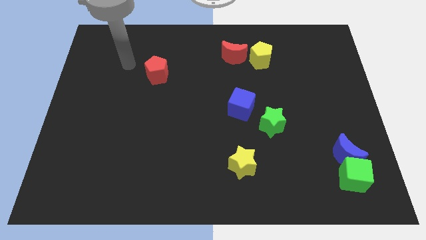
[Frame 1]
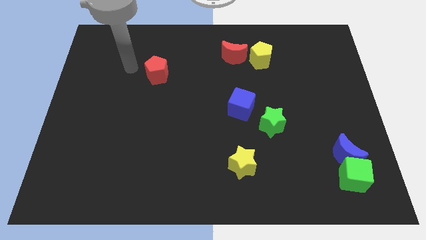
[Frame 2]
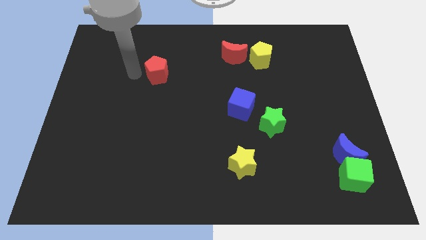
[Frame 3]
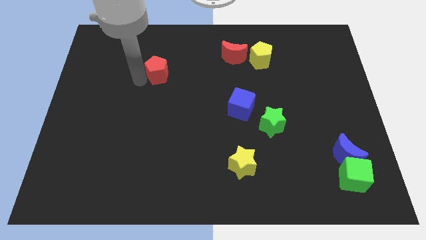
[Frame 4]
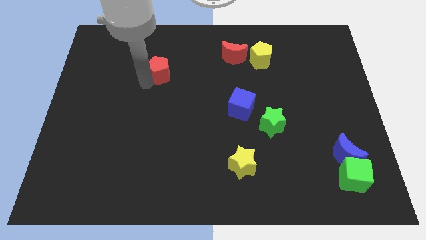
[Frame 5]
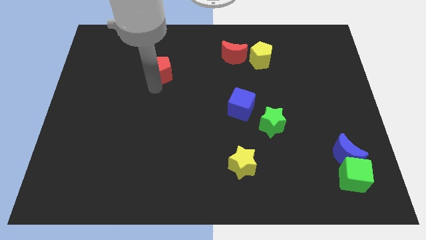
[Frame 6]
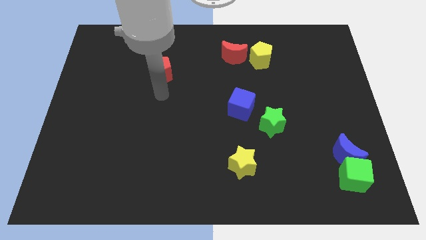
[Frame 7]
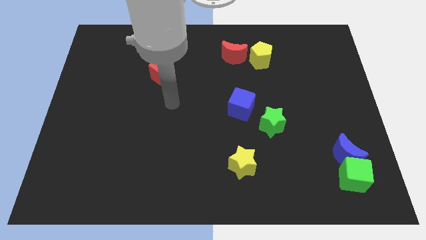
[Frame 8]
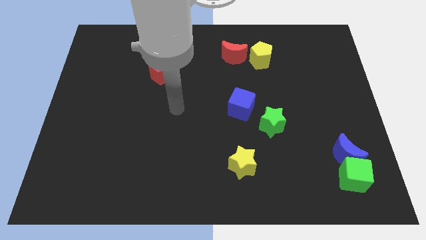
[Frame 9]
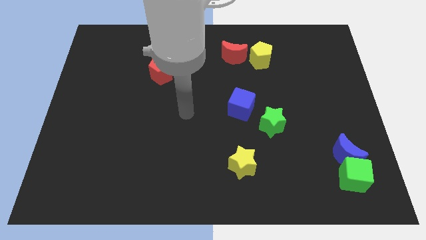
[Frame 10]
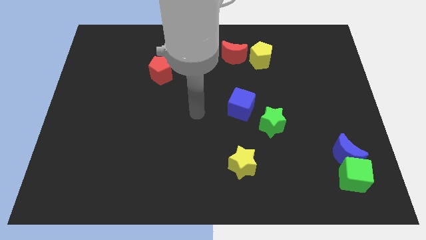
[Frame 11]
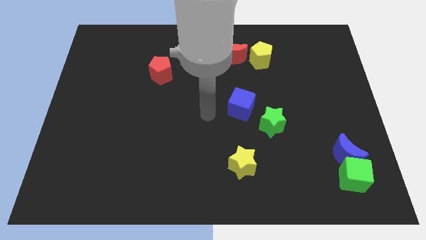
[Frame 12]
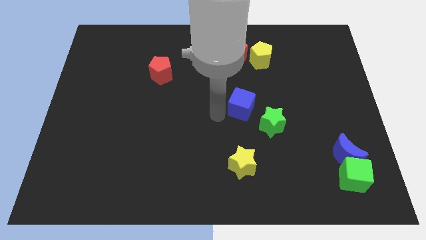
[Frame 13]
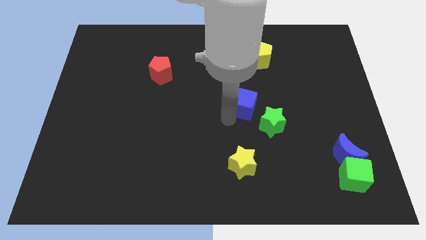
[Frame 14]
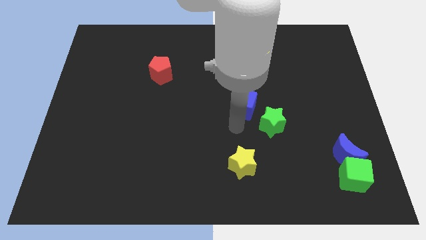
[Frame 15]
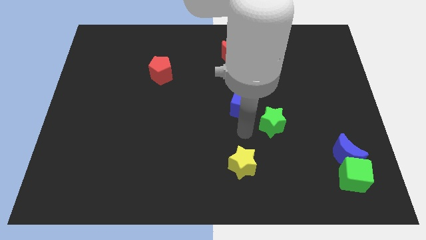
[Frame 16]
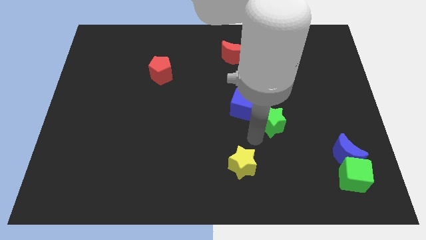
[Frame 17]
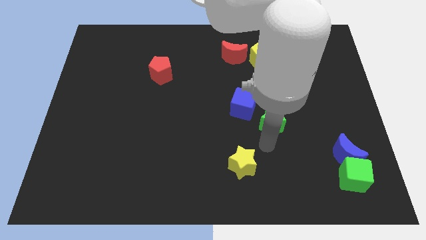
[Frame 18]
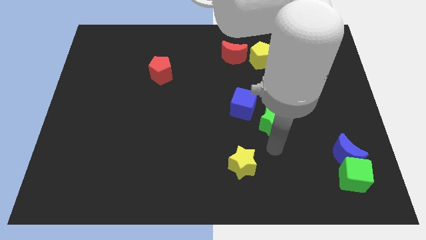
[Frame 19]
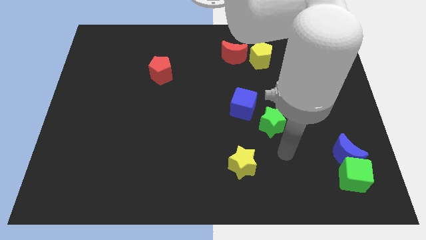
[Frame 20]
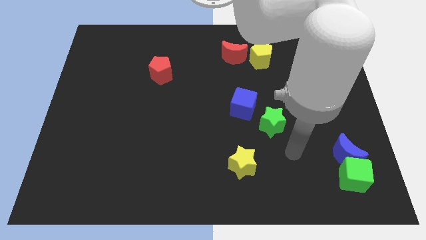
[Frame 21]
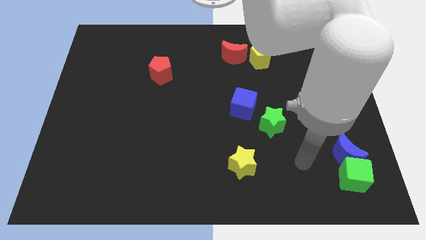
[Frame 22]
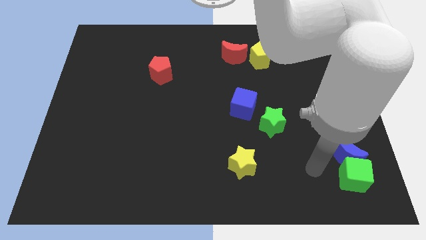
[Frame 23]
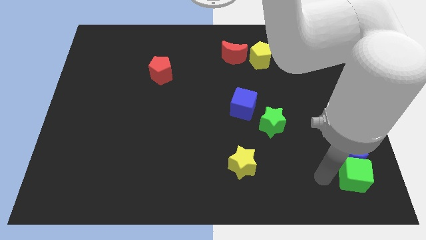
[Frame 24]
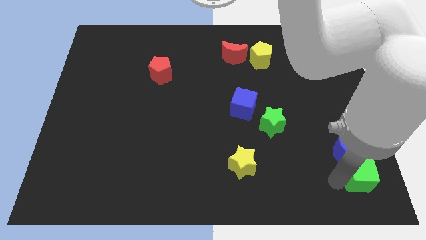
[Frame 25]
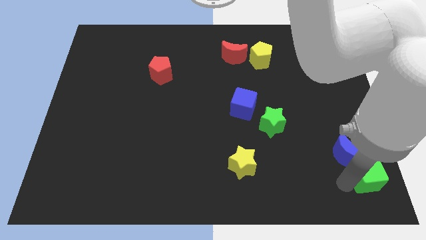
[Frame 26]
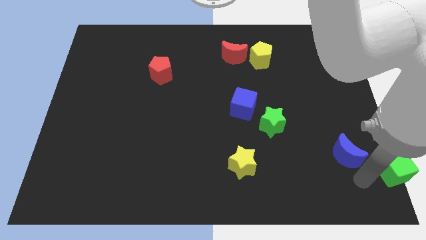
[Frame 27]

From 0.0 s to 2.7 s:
move the blue moon away from the green cube

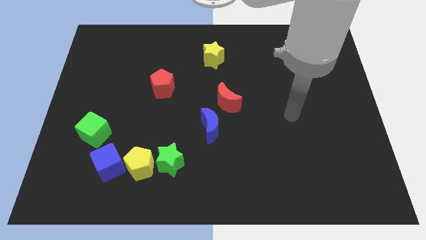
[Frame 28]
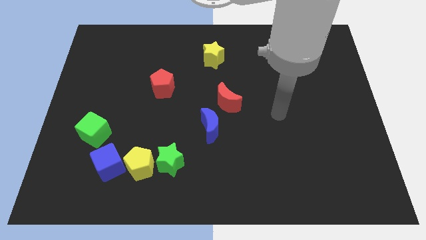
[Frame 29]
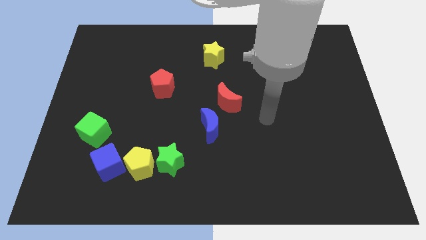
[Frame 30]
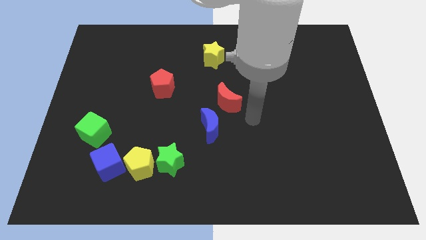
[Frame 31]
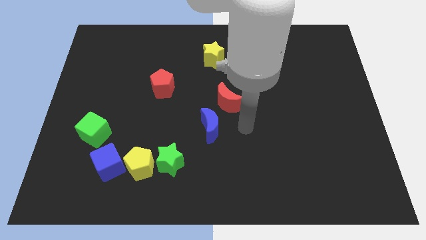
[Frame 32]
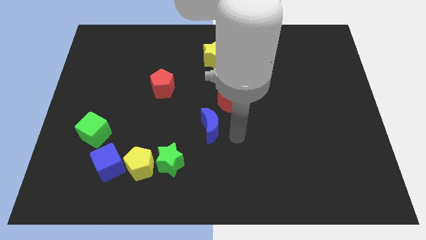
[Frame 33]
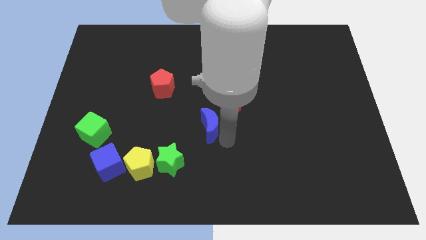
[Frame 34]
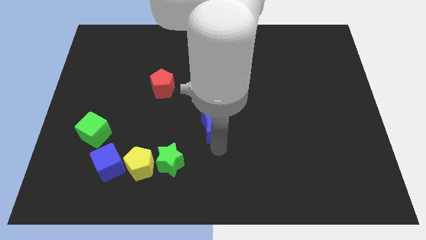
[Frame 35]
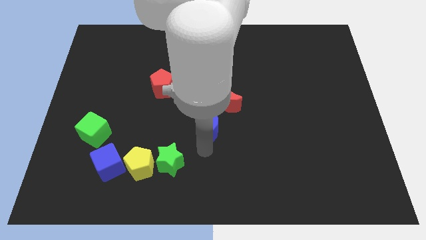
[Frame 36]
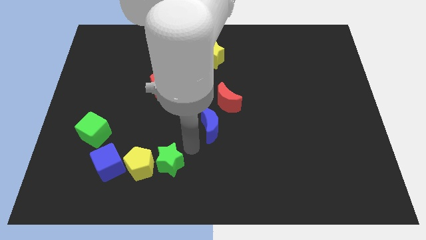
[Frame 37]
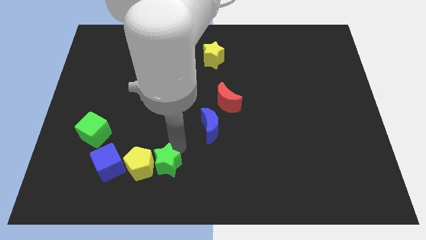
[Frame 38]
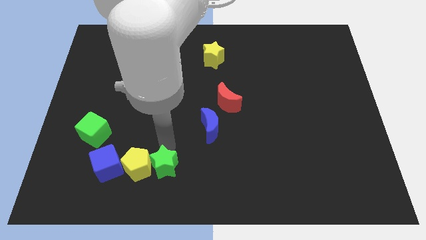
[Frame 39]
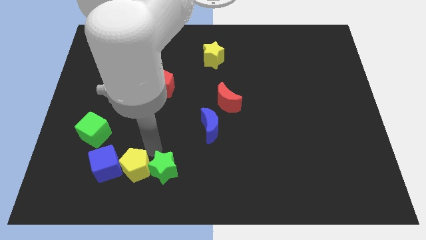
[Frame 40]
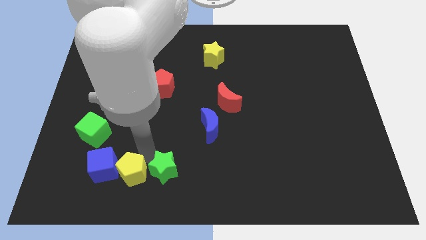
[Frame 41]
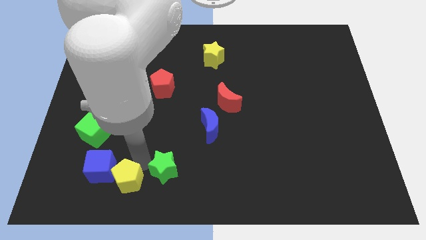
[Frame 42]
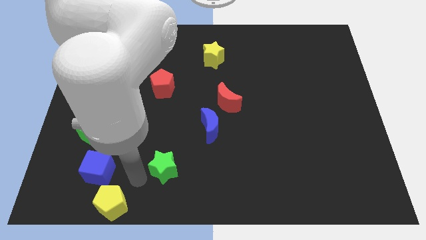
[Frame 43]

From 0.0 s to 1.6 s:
move the green star away from the yellow pentagon

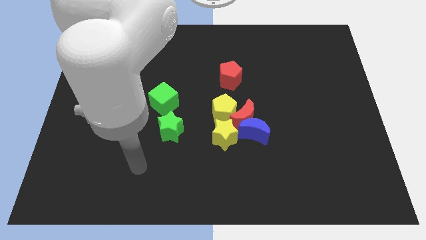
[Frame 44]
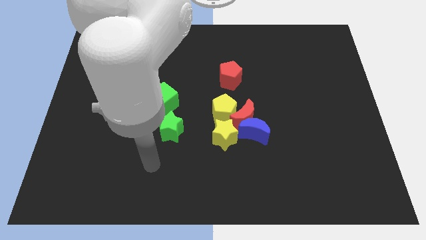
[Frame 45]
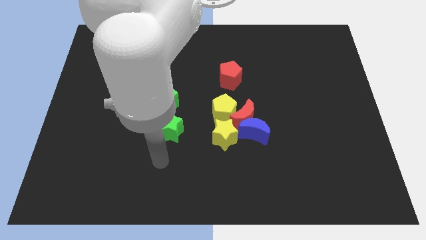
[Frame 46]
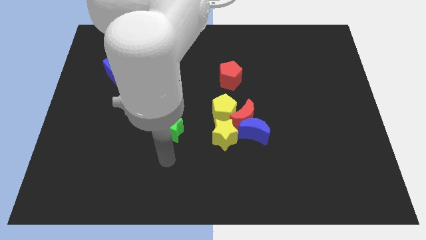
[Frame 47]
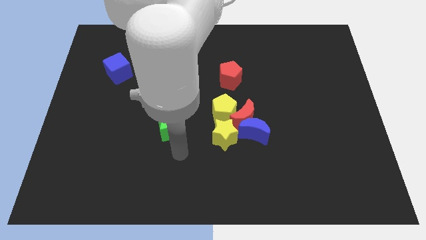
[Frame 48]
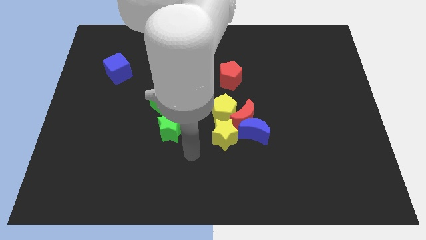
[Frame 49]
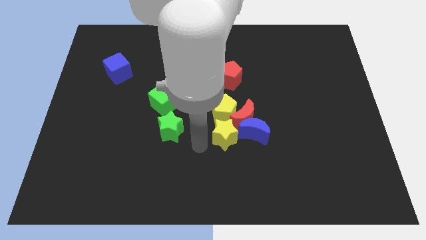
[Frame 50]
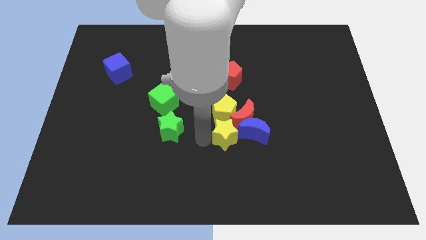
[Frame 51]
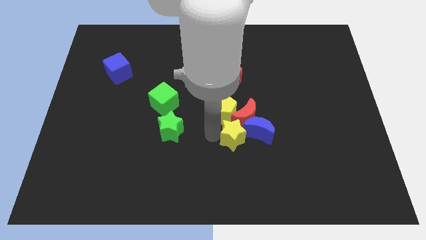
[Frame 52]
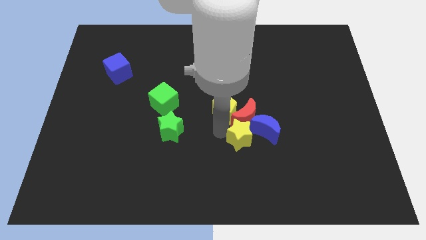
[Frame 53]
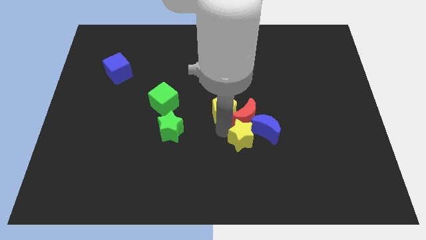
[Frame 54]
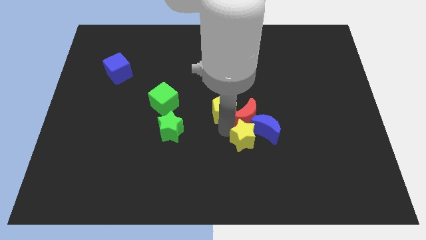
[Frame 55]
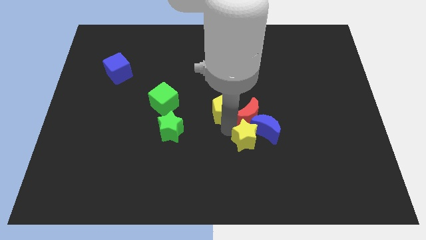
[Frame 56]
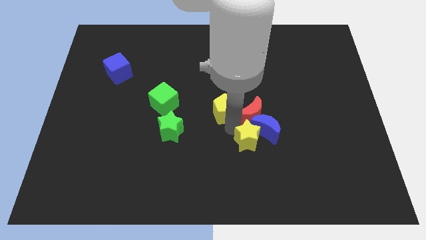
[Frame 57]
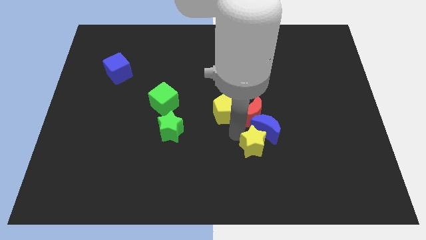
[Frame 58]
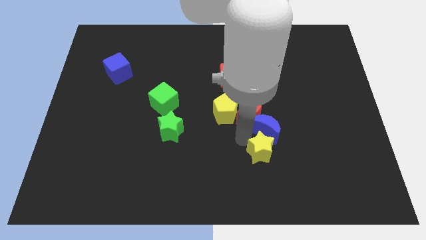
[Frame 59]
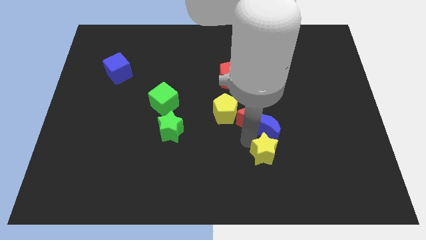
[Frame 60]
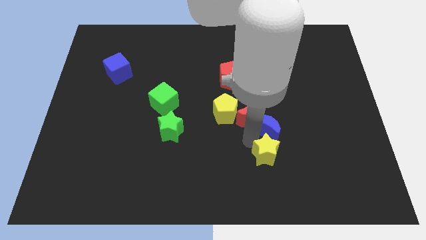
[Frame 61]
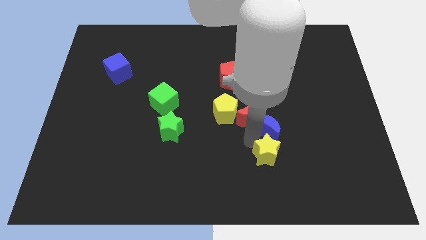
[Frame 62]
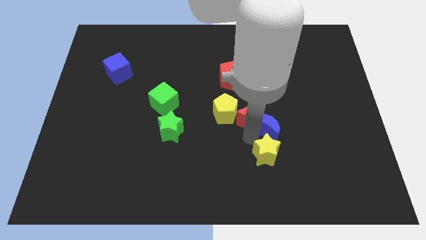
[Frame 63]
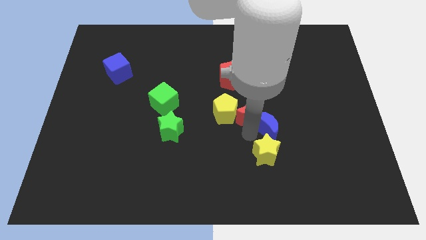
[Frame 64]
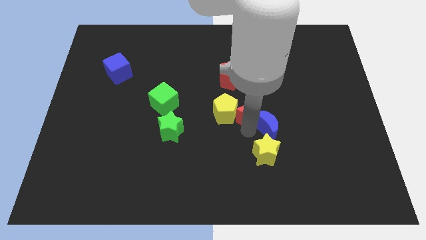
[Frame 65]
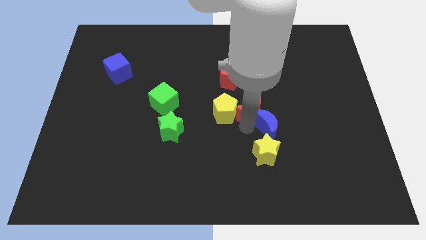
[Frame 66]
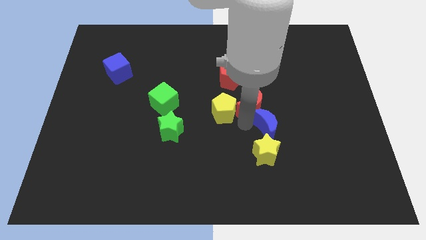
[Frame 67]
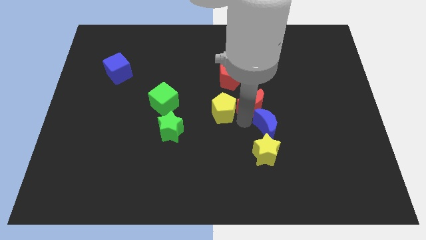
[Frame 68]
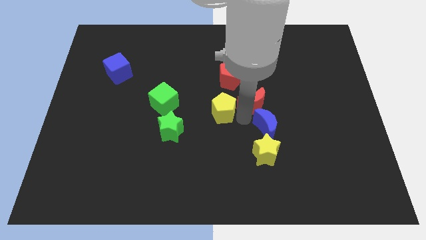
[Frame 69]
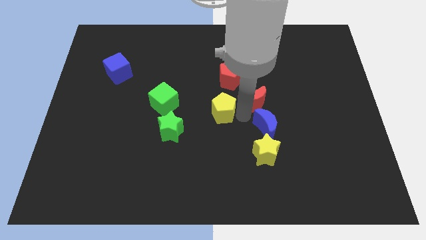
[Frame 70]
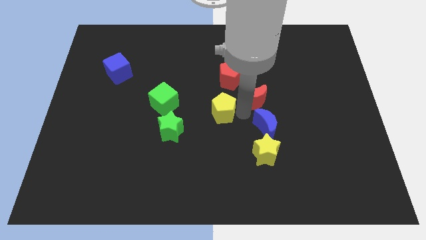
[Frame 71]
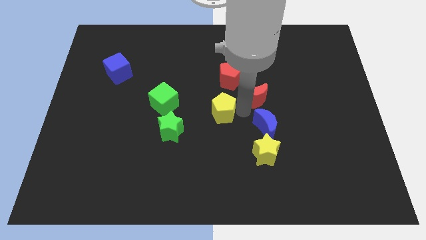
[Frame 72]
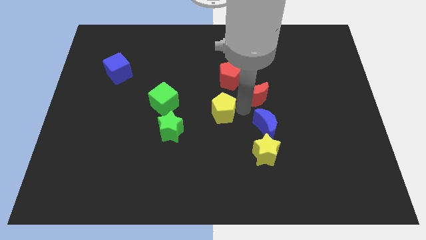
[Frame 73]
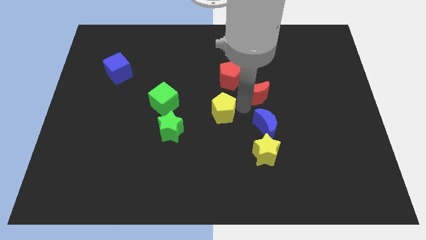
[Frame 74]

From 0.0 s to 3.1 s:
move the red moon away from the group of blocks

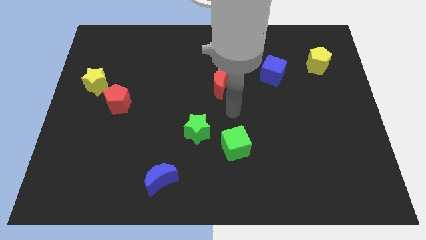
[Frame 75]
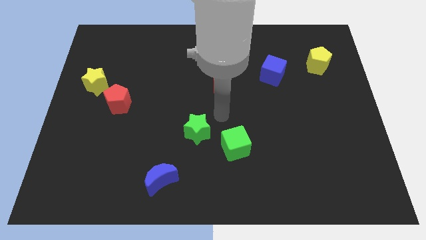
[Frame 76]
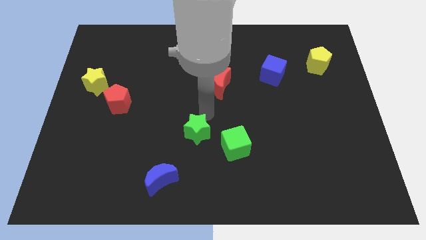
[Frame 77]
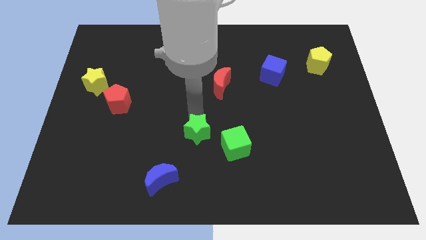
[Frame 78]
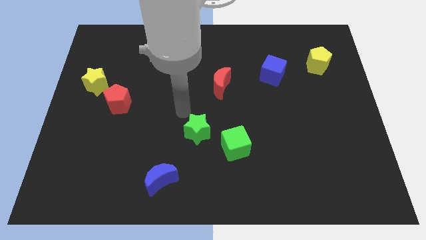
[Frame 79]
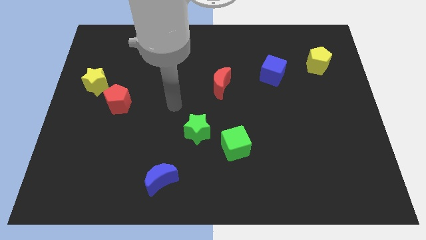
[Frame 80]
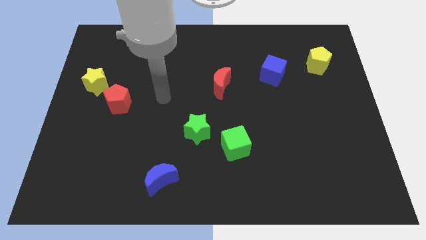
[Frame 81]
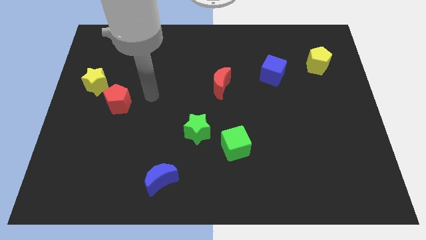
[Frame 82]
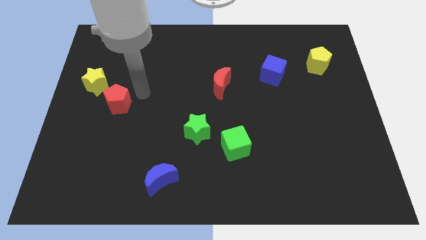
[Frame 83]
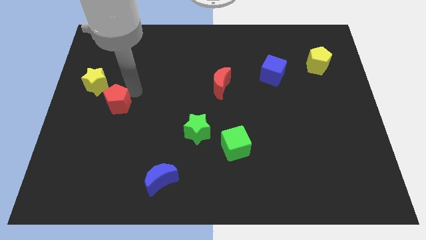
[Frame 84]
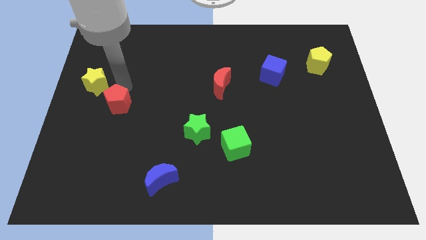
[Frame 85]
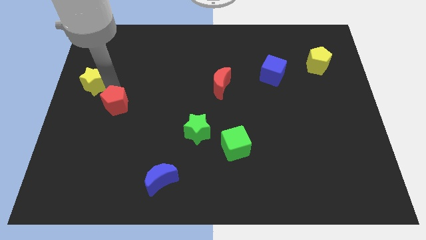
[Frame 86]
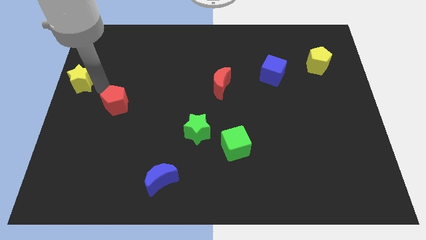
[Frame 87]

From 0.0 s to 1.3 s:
separate the red pentagon from the yellow star

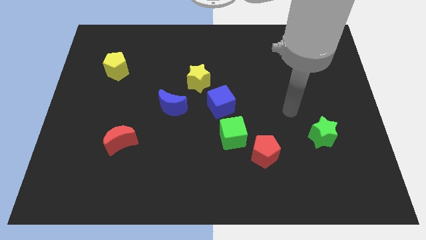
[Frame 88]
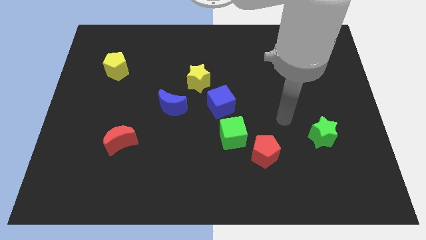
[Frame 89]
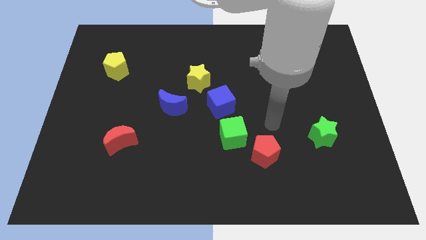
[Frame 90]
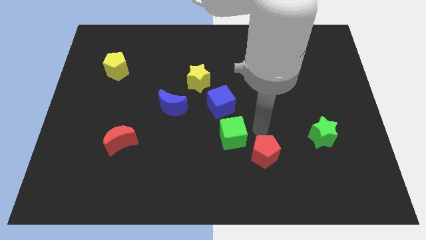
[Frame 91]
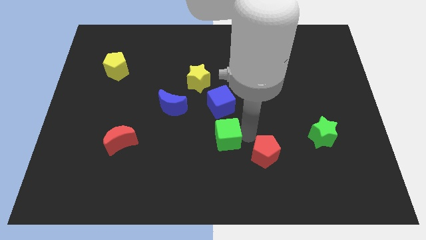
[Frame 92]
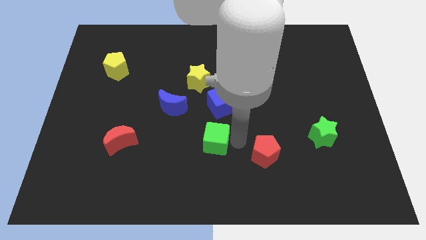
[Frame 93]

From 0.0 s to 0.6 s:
separate the red pentagon from the green cube

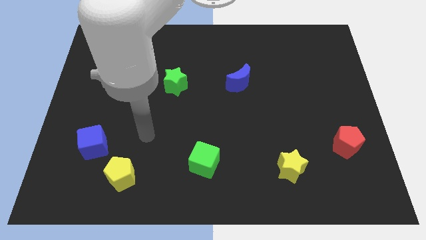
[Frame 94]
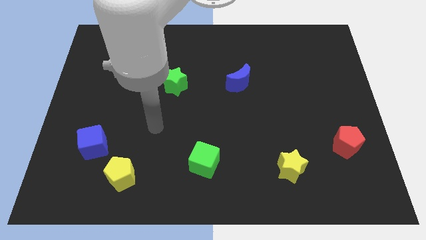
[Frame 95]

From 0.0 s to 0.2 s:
pull the red moon apart from the green star
